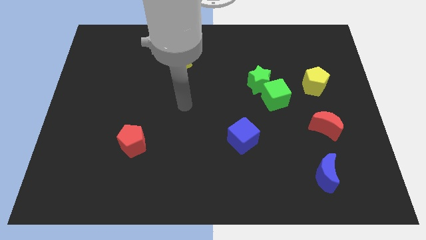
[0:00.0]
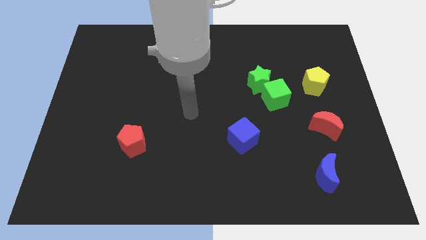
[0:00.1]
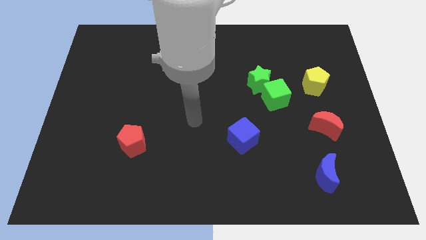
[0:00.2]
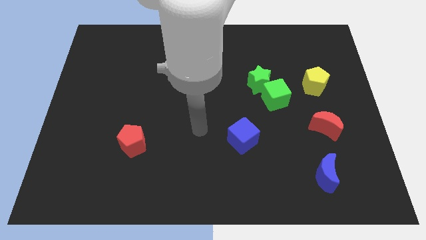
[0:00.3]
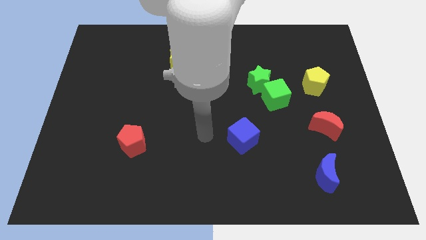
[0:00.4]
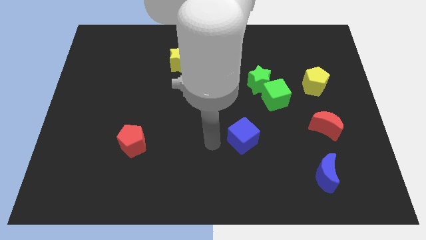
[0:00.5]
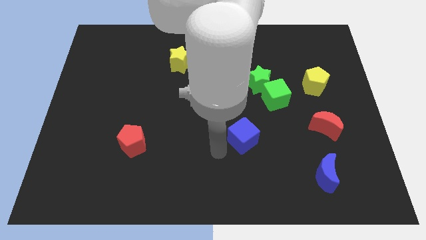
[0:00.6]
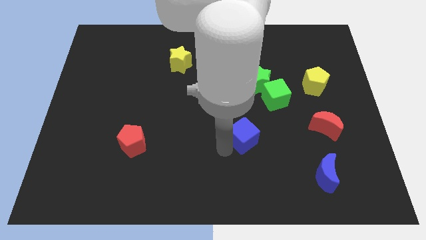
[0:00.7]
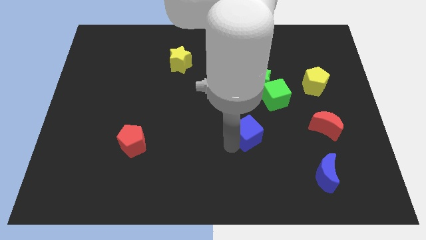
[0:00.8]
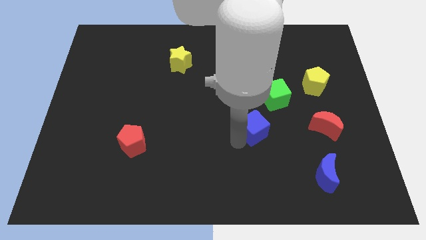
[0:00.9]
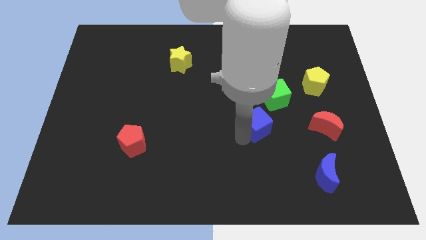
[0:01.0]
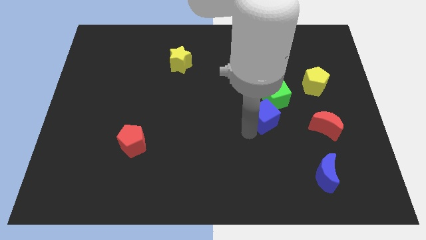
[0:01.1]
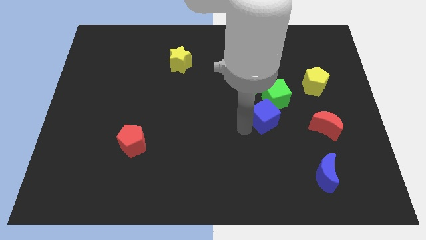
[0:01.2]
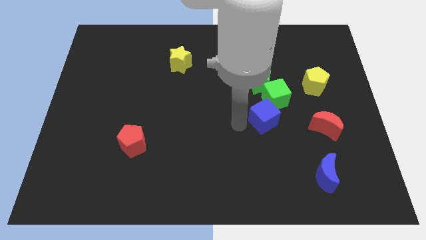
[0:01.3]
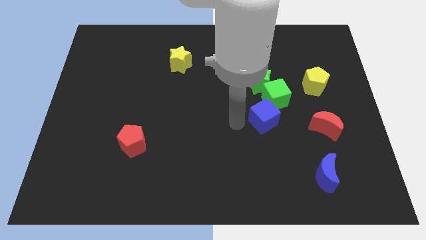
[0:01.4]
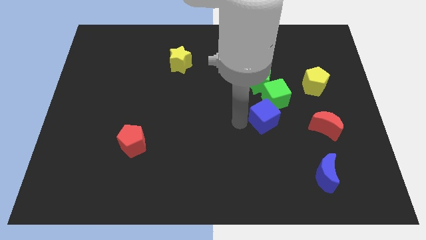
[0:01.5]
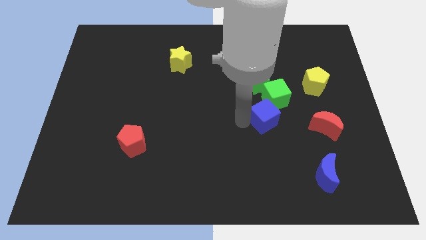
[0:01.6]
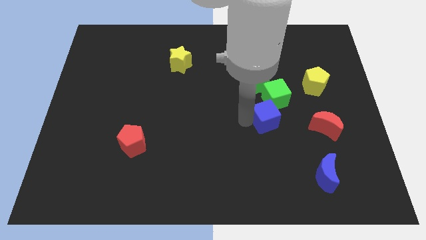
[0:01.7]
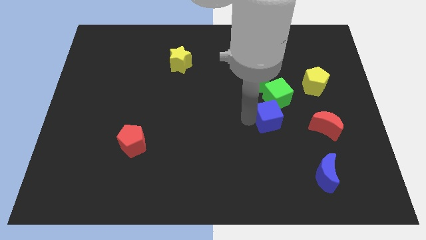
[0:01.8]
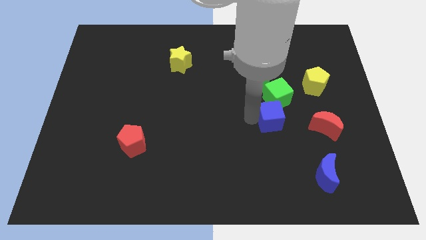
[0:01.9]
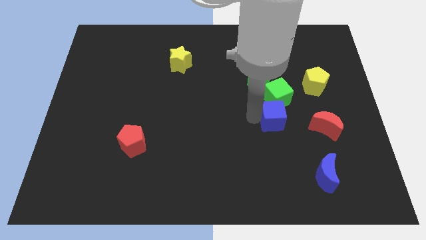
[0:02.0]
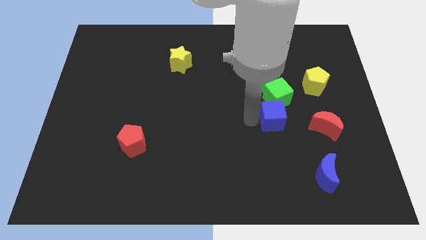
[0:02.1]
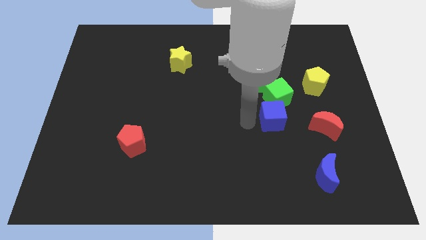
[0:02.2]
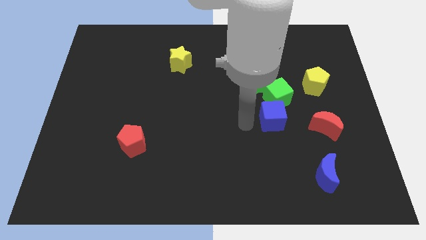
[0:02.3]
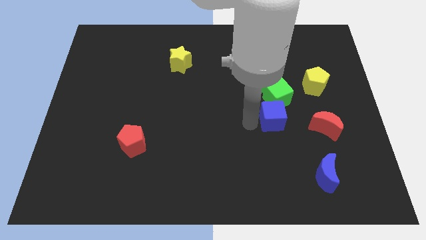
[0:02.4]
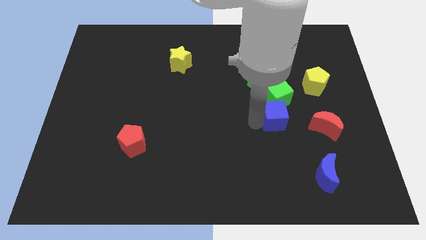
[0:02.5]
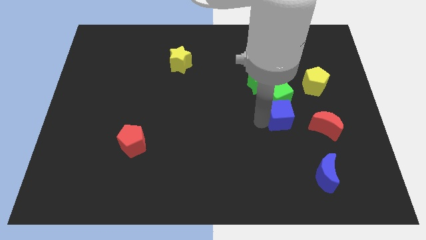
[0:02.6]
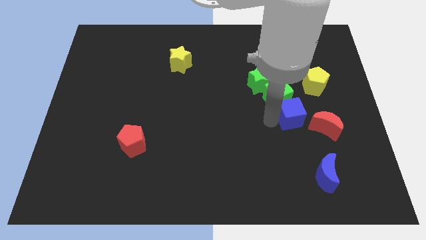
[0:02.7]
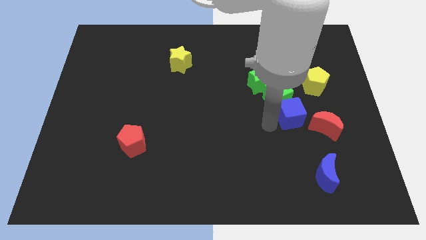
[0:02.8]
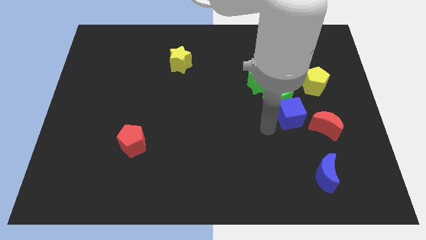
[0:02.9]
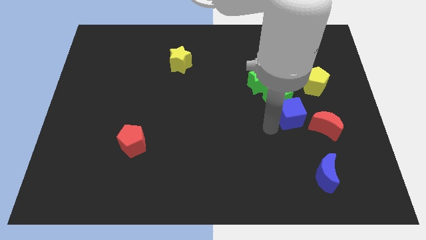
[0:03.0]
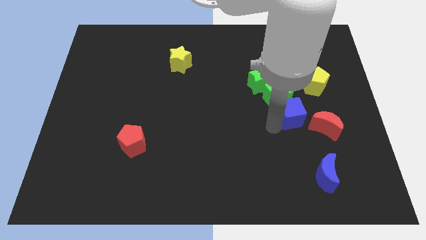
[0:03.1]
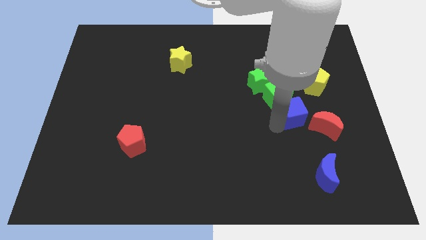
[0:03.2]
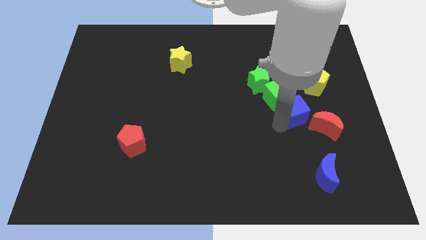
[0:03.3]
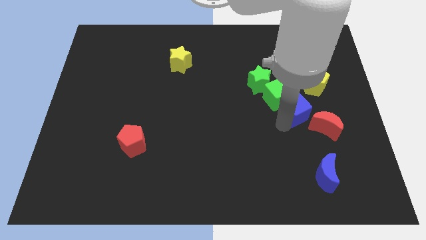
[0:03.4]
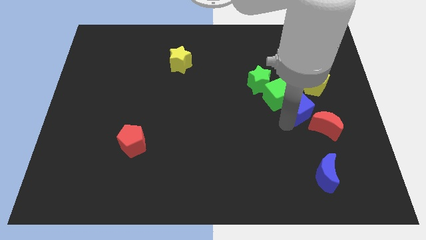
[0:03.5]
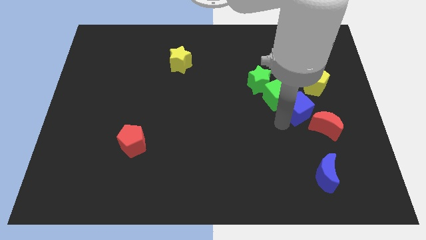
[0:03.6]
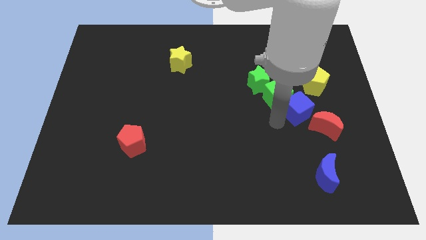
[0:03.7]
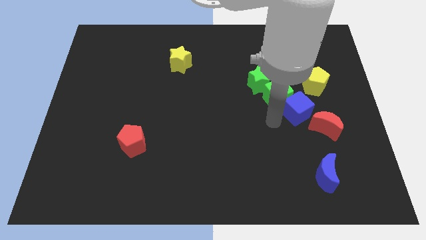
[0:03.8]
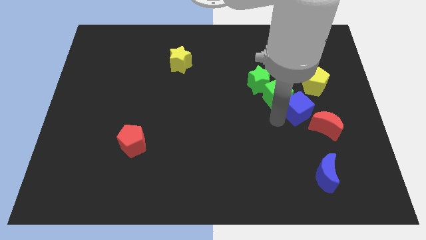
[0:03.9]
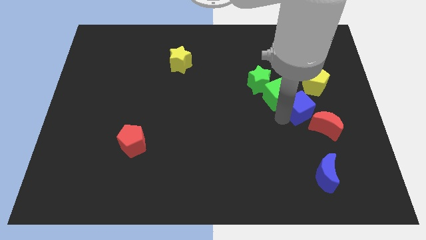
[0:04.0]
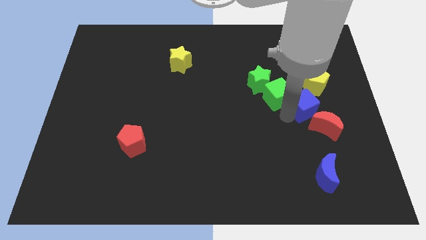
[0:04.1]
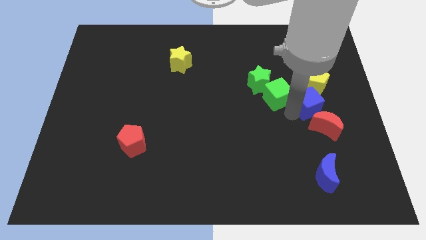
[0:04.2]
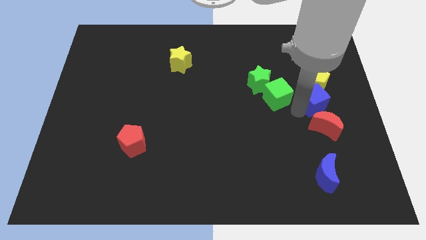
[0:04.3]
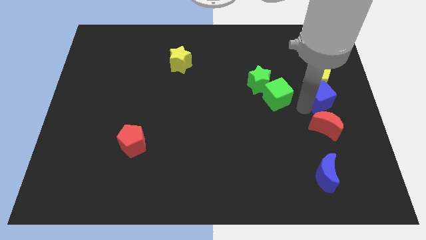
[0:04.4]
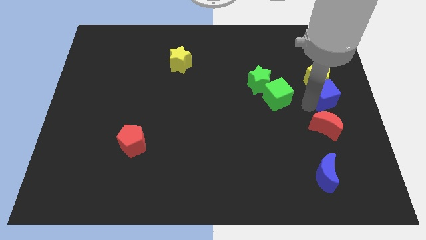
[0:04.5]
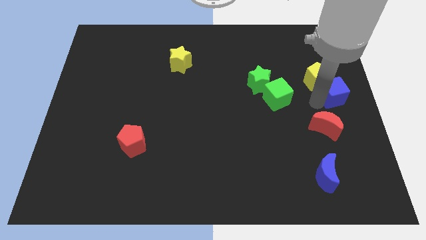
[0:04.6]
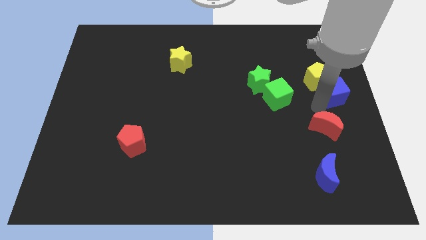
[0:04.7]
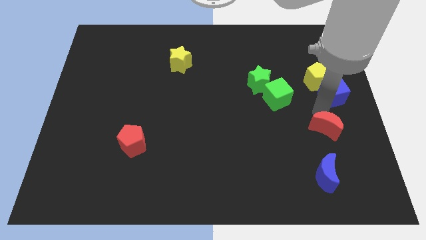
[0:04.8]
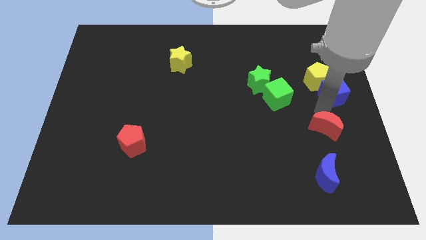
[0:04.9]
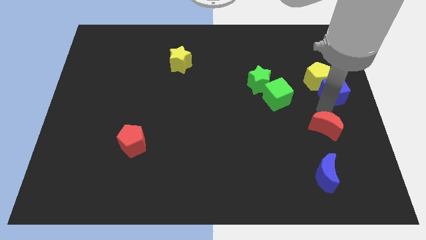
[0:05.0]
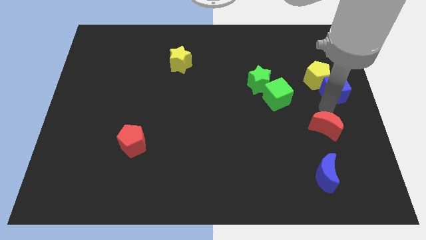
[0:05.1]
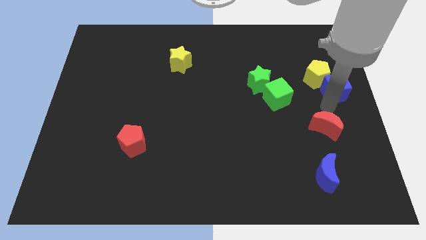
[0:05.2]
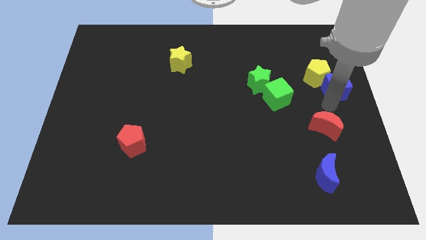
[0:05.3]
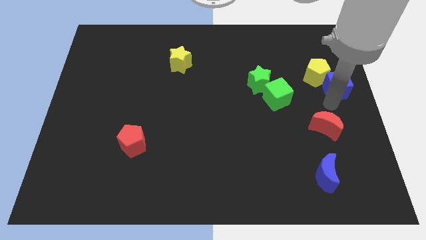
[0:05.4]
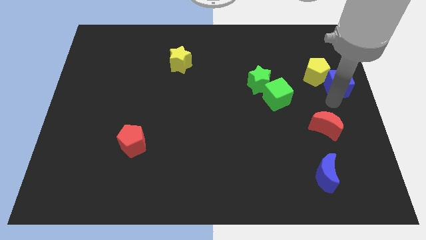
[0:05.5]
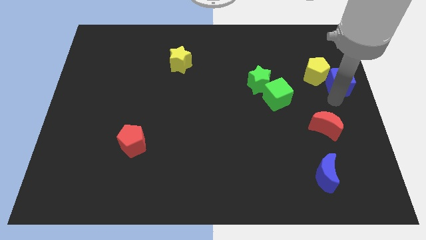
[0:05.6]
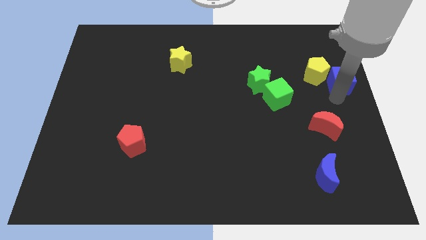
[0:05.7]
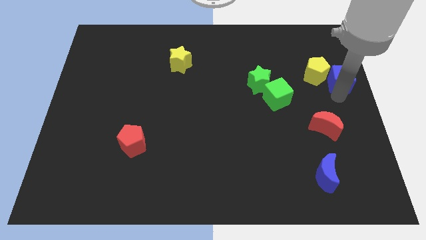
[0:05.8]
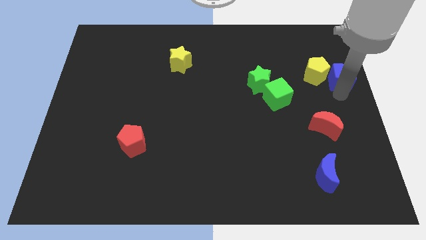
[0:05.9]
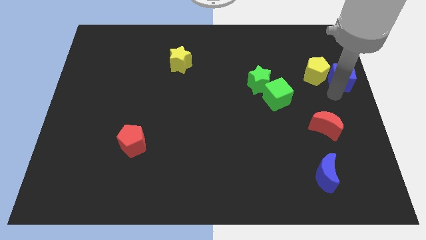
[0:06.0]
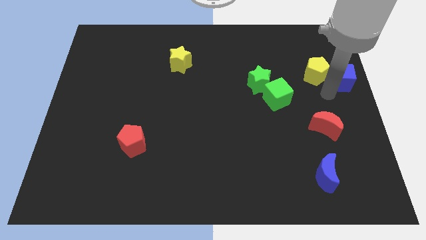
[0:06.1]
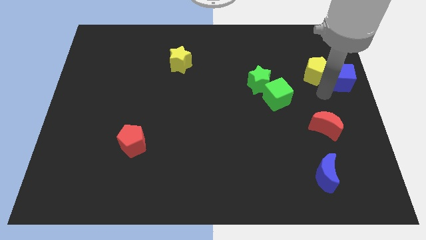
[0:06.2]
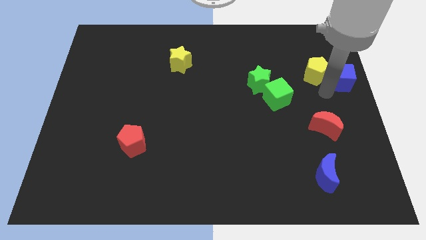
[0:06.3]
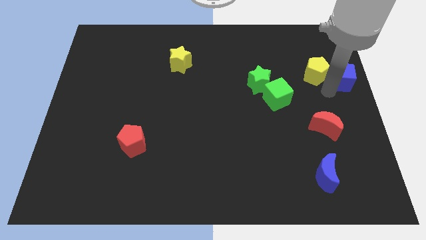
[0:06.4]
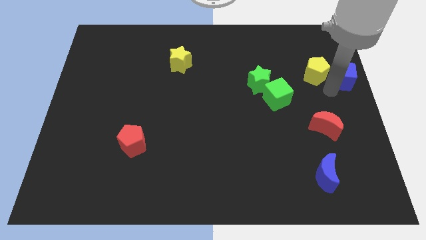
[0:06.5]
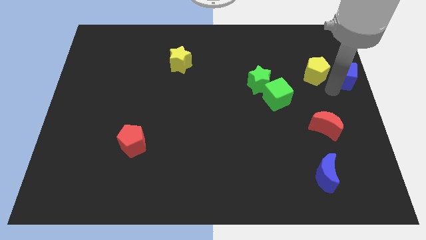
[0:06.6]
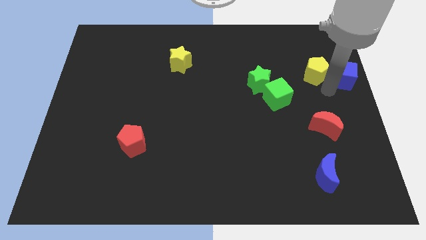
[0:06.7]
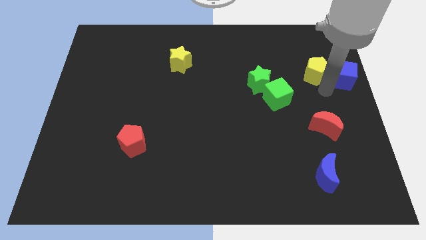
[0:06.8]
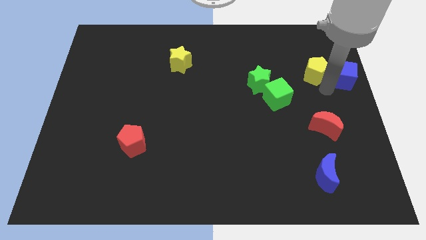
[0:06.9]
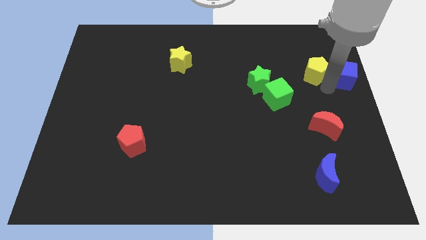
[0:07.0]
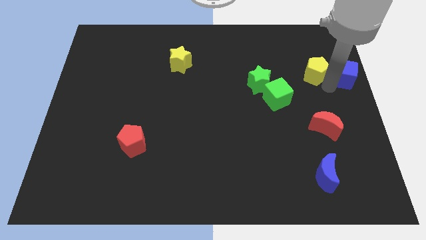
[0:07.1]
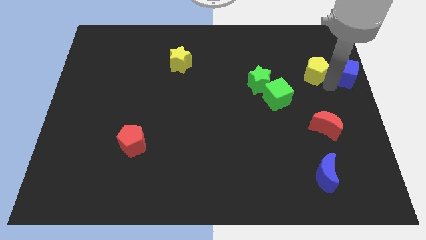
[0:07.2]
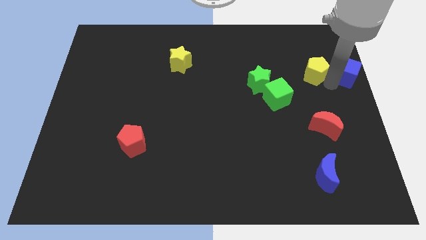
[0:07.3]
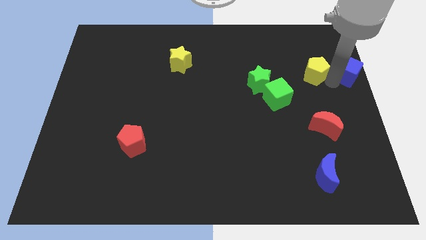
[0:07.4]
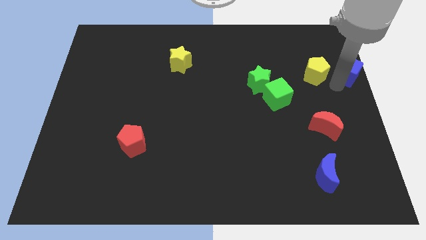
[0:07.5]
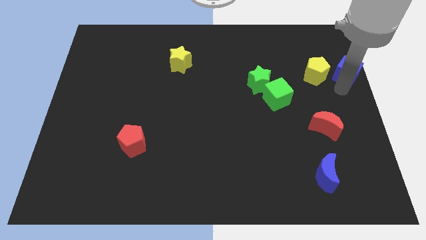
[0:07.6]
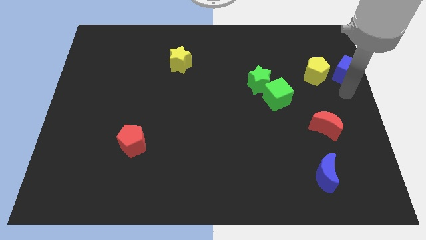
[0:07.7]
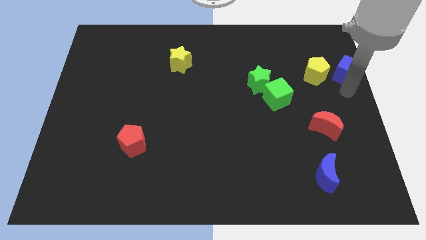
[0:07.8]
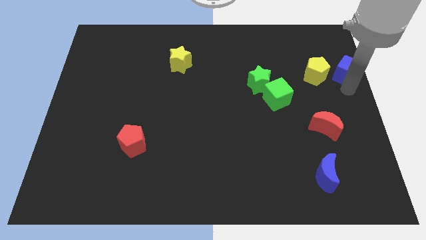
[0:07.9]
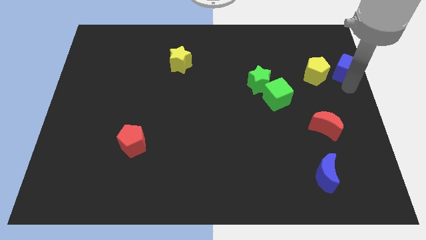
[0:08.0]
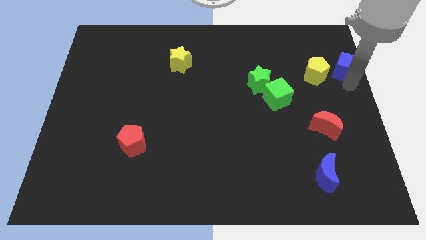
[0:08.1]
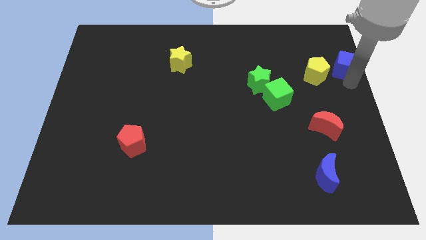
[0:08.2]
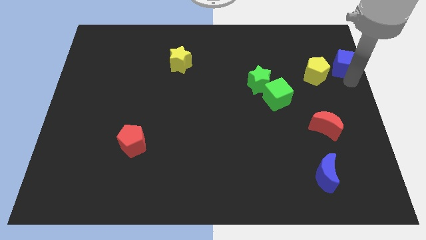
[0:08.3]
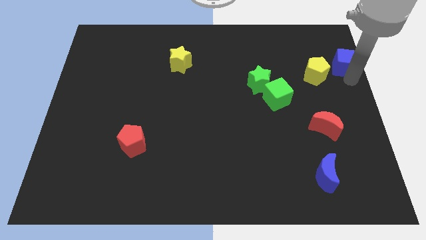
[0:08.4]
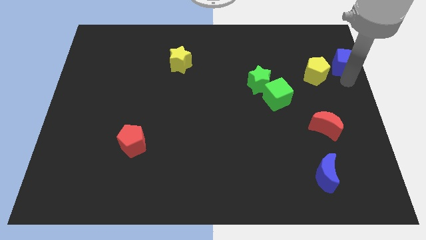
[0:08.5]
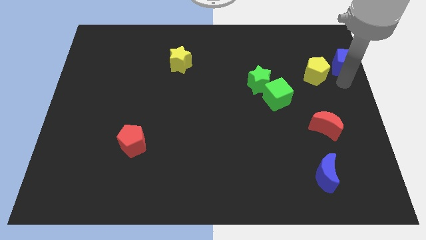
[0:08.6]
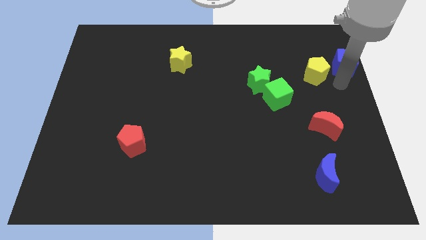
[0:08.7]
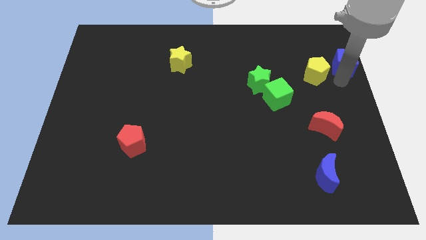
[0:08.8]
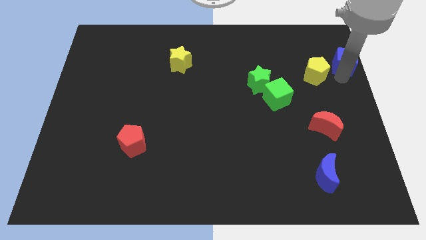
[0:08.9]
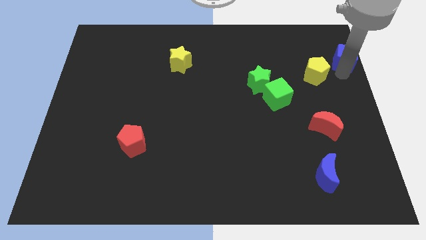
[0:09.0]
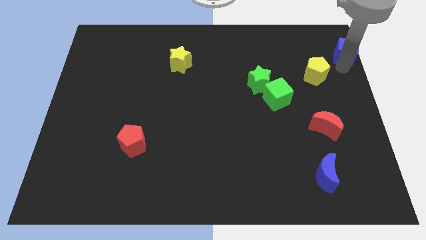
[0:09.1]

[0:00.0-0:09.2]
slide the blue cube to the top right corner
